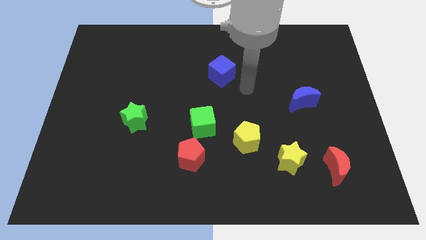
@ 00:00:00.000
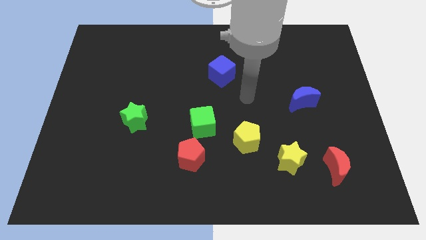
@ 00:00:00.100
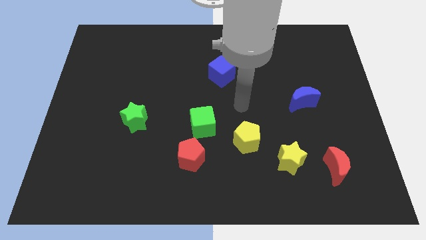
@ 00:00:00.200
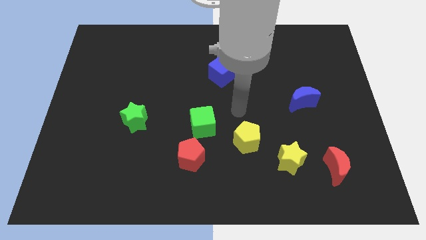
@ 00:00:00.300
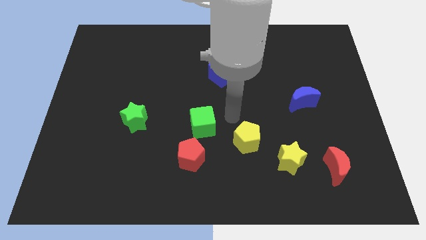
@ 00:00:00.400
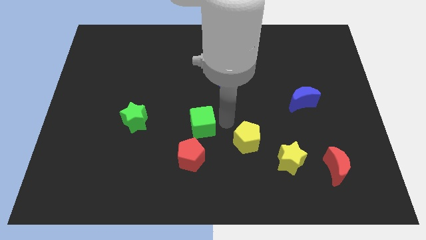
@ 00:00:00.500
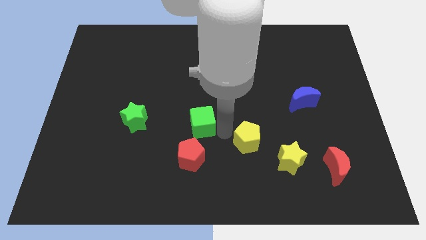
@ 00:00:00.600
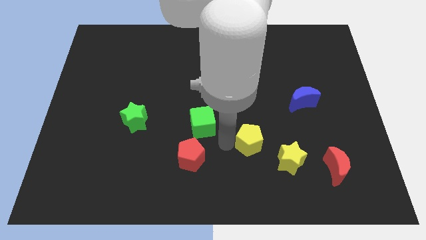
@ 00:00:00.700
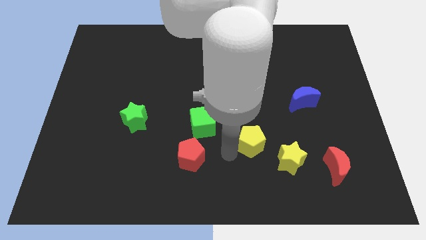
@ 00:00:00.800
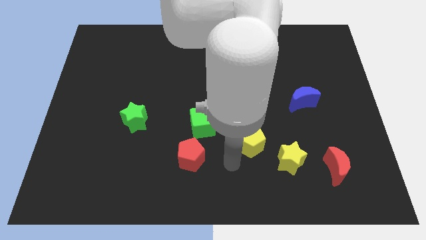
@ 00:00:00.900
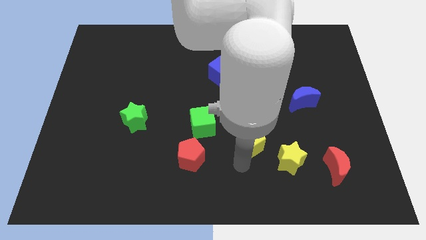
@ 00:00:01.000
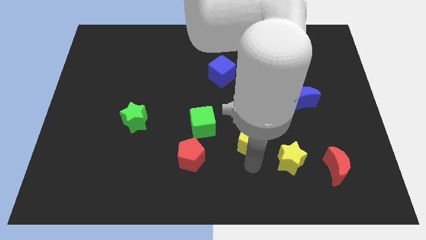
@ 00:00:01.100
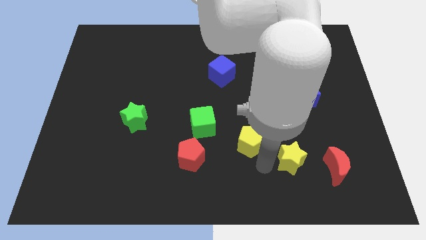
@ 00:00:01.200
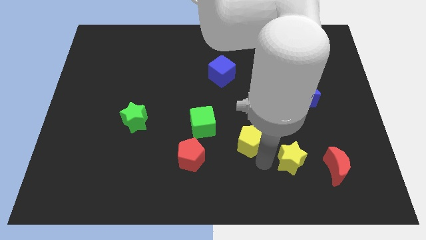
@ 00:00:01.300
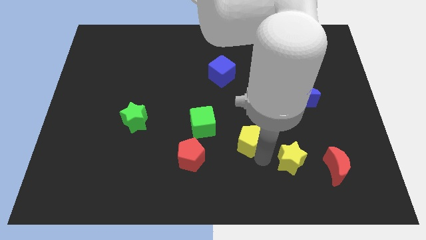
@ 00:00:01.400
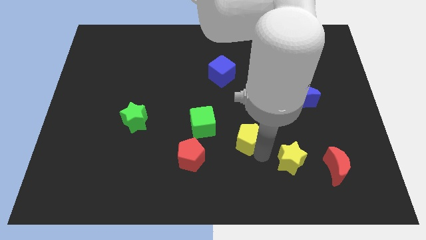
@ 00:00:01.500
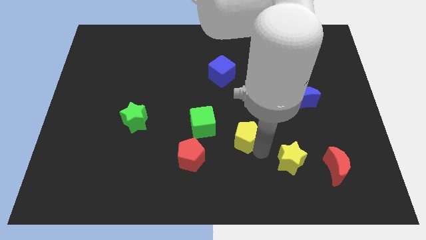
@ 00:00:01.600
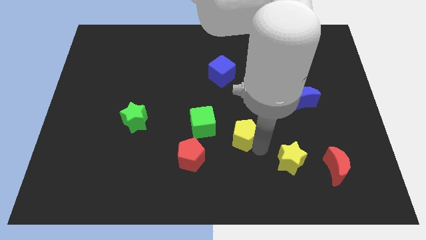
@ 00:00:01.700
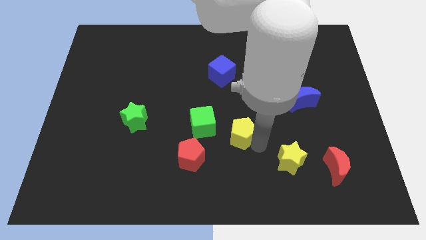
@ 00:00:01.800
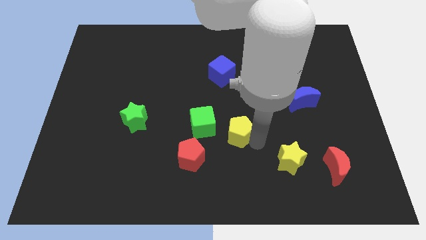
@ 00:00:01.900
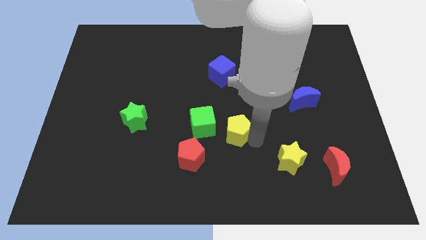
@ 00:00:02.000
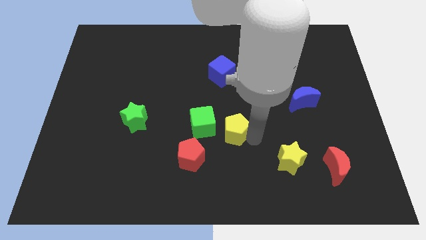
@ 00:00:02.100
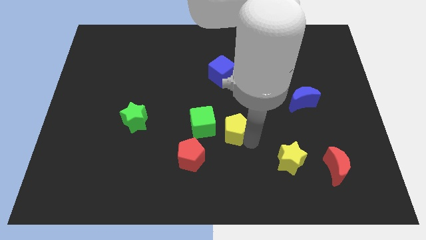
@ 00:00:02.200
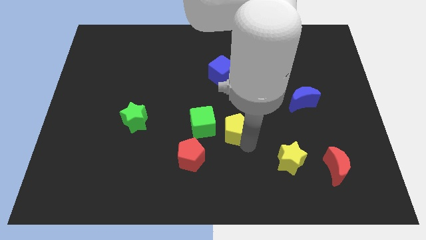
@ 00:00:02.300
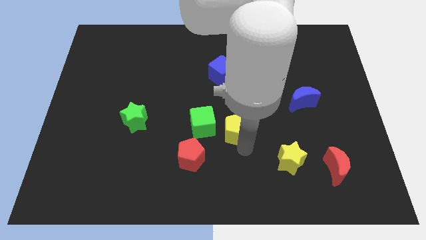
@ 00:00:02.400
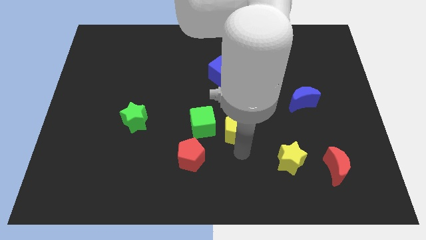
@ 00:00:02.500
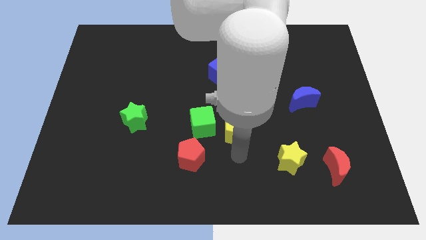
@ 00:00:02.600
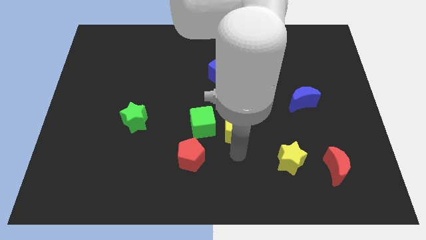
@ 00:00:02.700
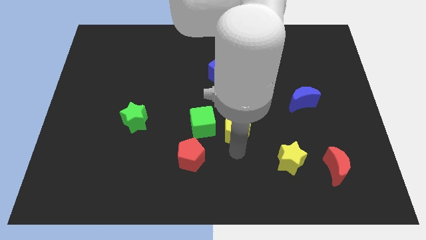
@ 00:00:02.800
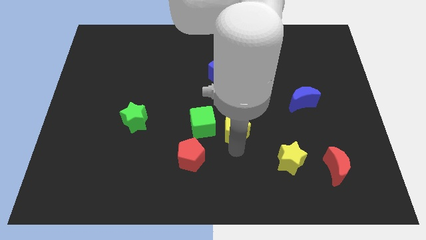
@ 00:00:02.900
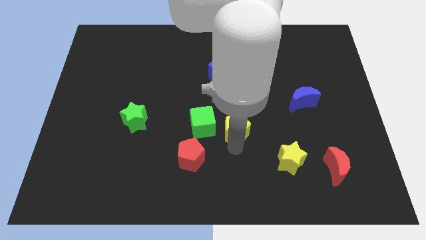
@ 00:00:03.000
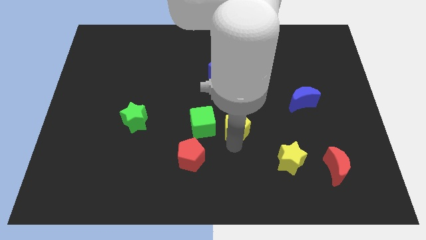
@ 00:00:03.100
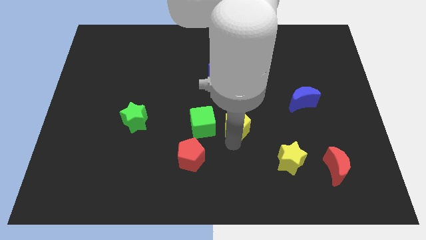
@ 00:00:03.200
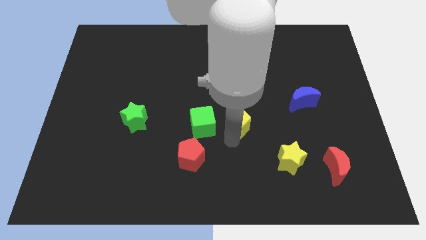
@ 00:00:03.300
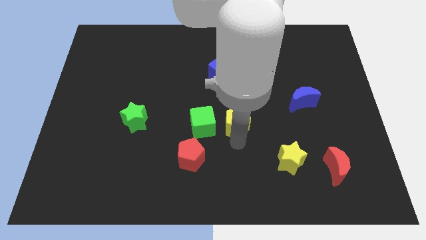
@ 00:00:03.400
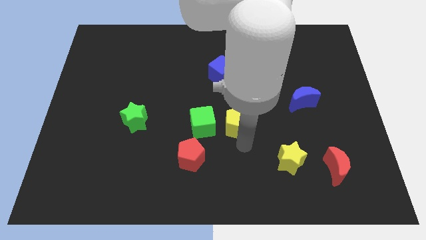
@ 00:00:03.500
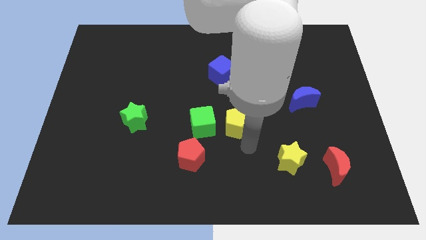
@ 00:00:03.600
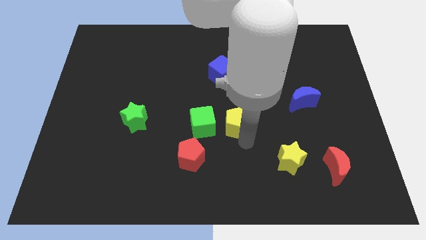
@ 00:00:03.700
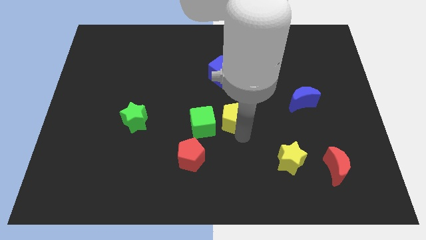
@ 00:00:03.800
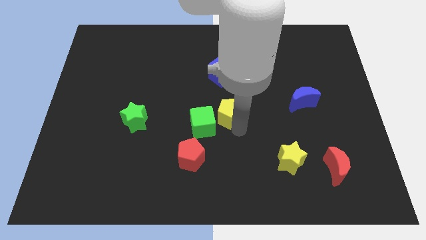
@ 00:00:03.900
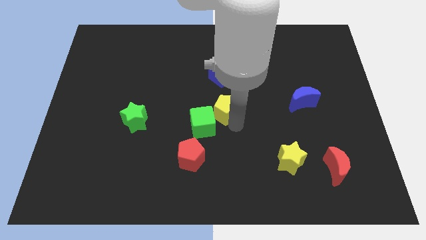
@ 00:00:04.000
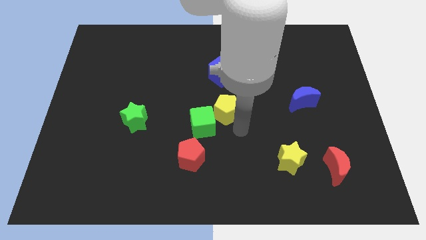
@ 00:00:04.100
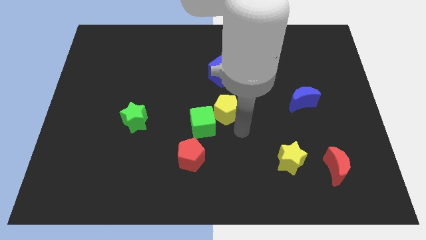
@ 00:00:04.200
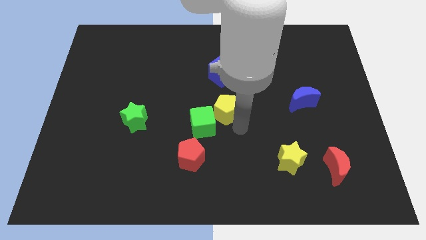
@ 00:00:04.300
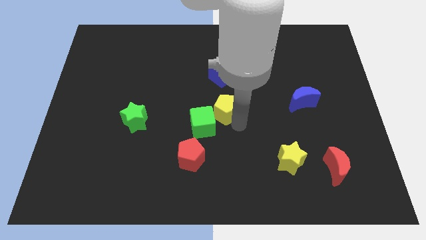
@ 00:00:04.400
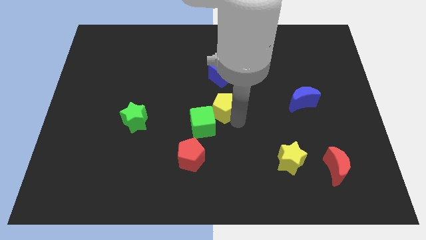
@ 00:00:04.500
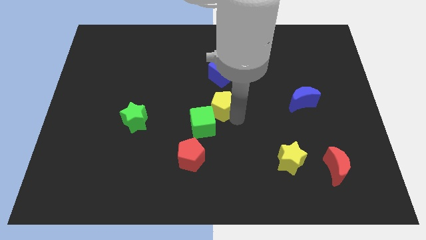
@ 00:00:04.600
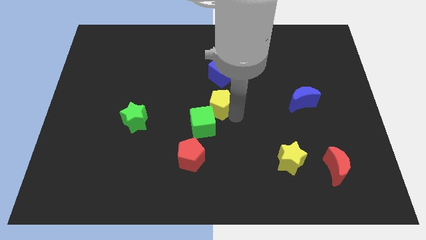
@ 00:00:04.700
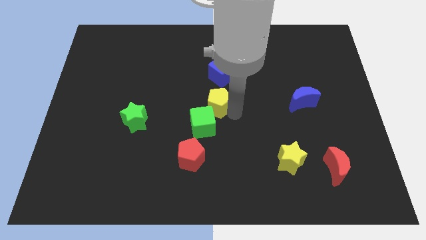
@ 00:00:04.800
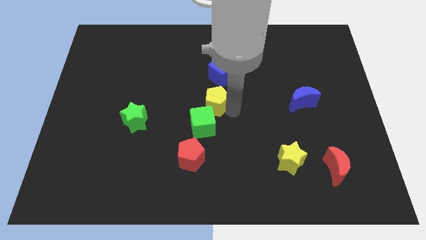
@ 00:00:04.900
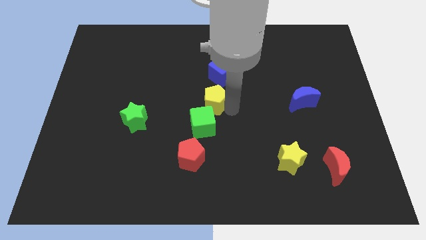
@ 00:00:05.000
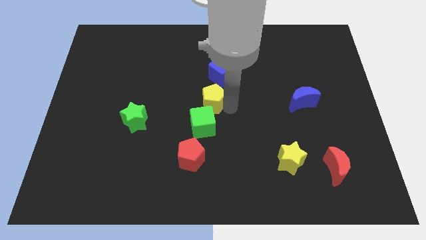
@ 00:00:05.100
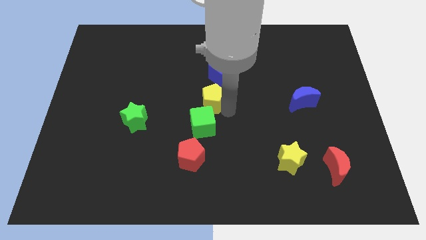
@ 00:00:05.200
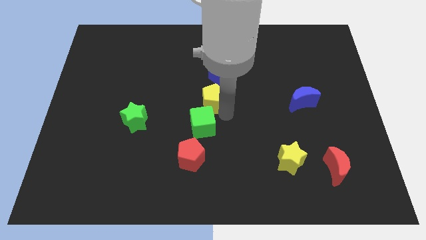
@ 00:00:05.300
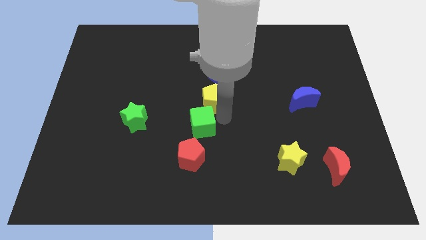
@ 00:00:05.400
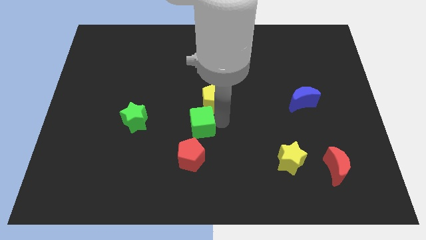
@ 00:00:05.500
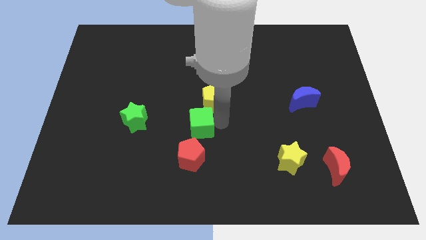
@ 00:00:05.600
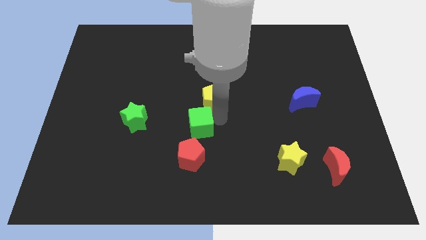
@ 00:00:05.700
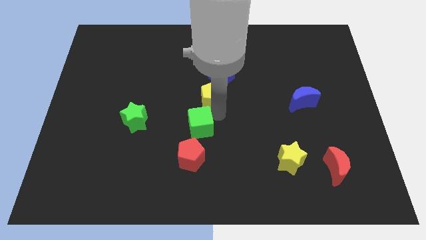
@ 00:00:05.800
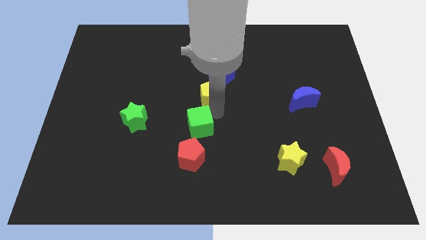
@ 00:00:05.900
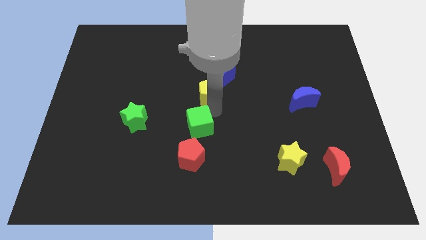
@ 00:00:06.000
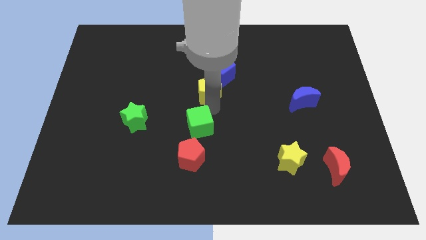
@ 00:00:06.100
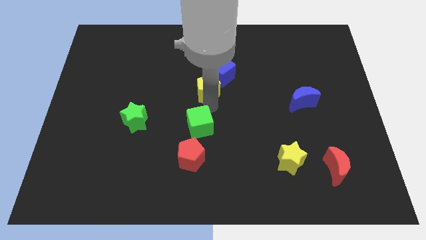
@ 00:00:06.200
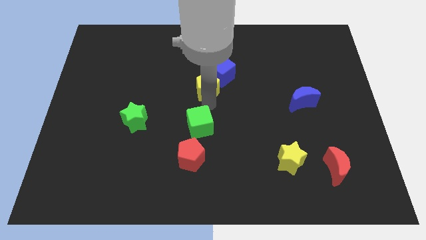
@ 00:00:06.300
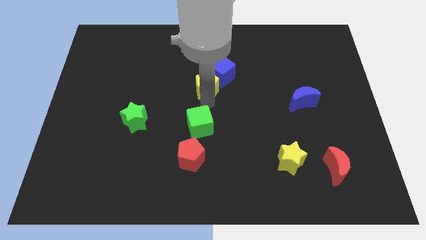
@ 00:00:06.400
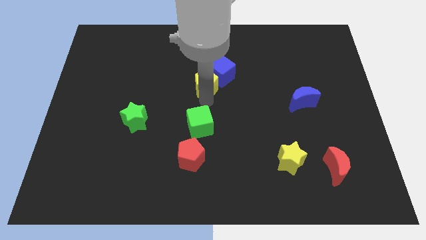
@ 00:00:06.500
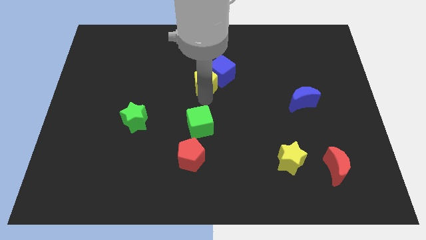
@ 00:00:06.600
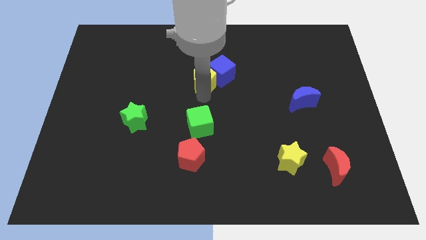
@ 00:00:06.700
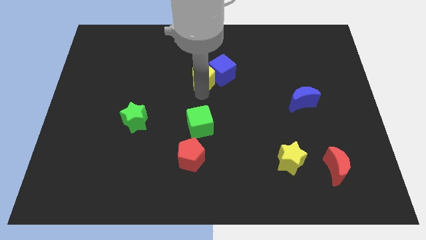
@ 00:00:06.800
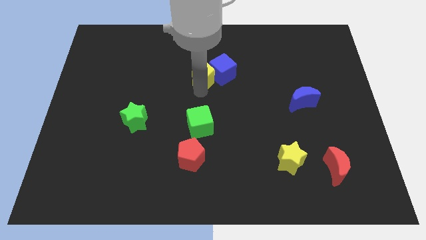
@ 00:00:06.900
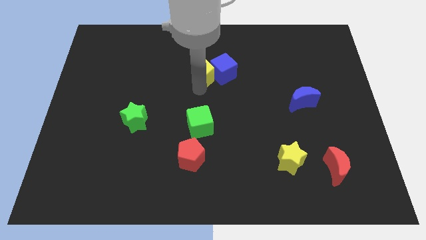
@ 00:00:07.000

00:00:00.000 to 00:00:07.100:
push the yellow pentagon to the top left of the blue cube
